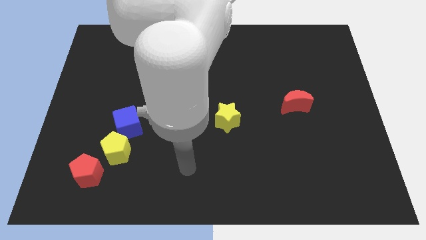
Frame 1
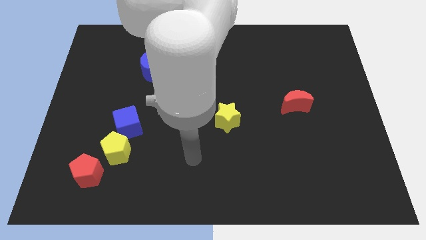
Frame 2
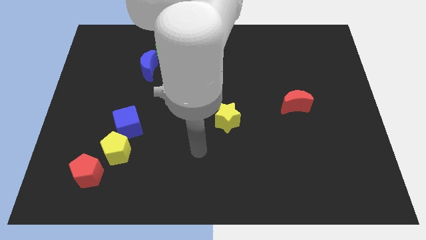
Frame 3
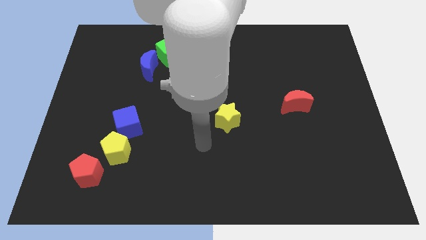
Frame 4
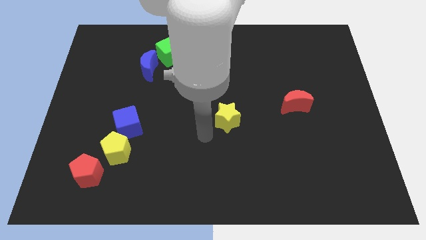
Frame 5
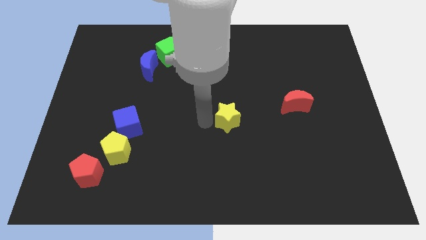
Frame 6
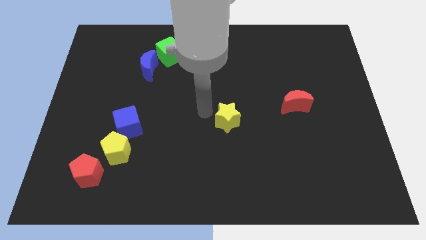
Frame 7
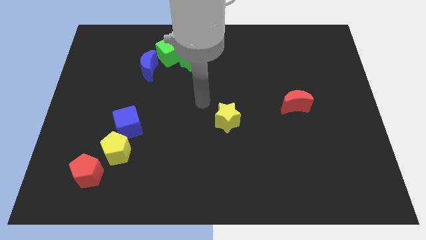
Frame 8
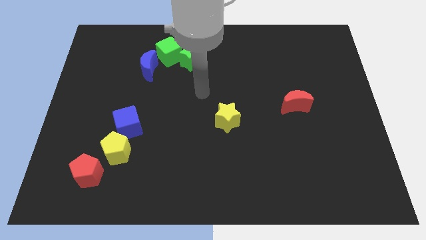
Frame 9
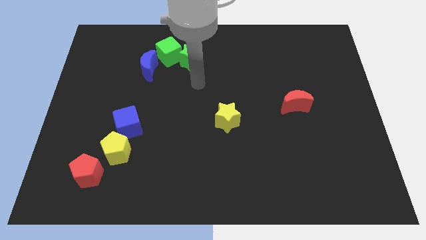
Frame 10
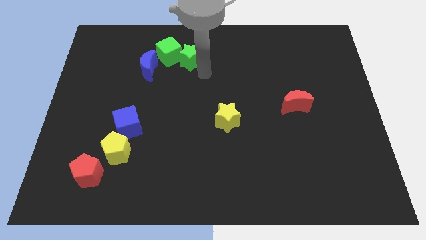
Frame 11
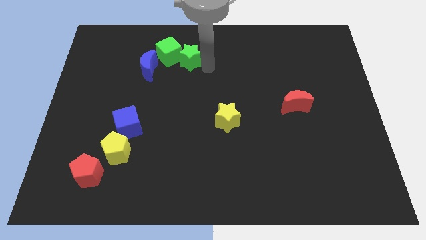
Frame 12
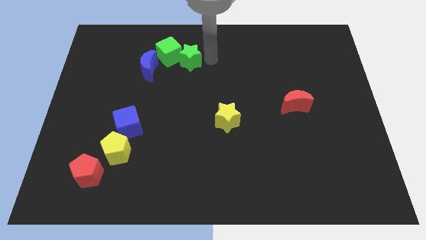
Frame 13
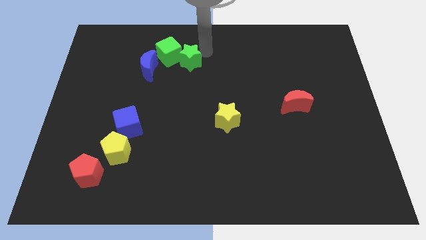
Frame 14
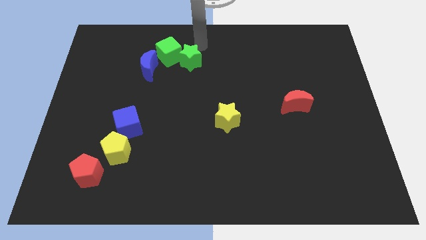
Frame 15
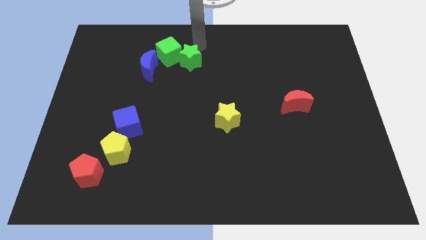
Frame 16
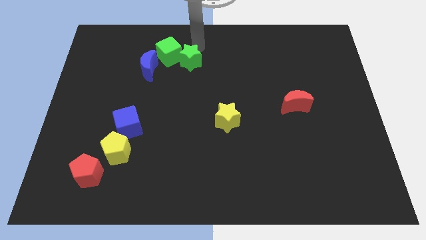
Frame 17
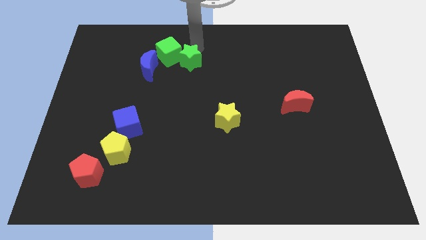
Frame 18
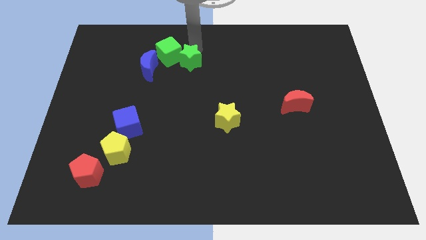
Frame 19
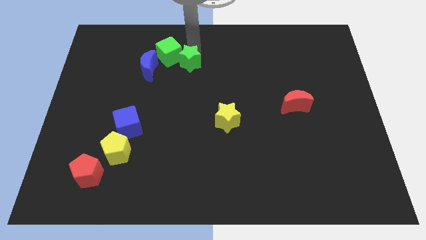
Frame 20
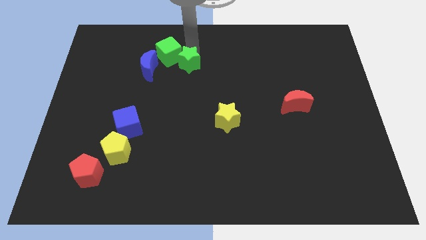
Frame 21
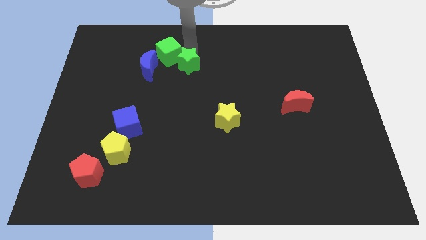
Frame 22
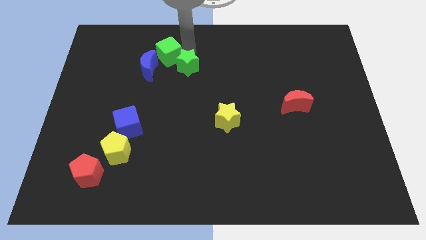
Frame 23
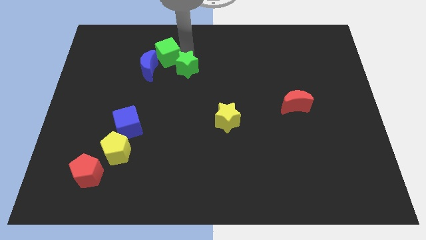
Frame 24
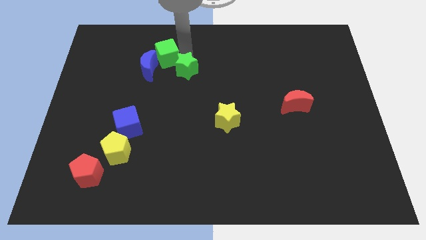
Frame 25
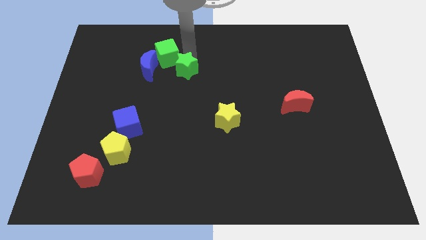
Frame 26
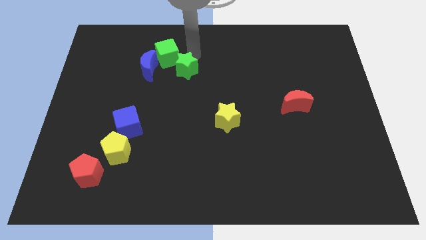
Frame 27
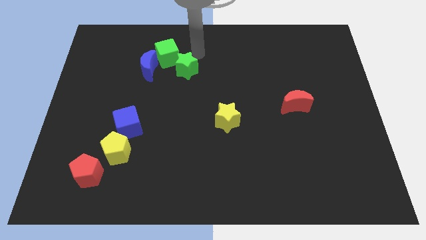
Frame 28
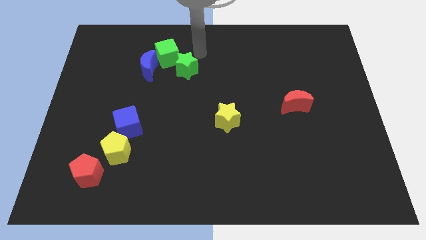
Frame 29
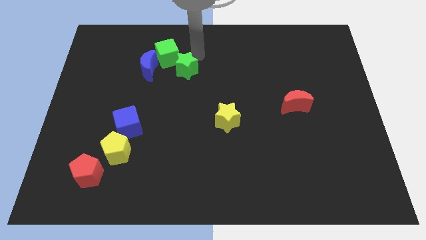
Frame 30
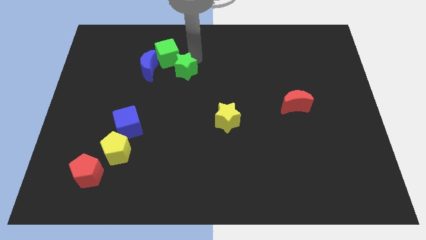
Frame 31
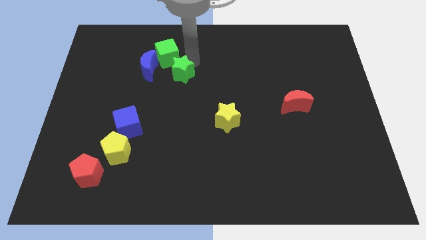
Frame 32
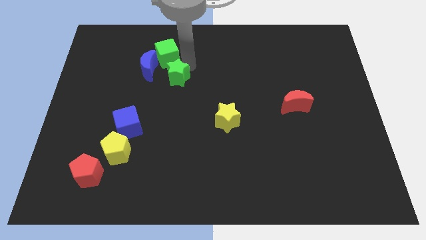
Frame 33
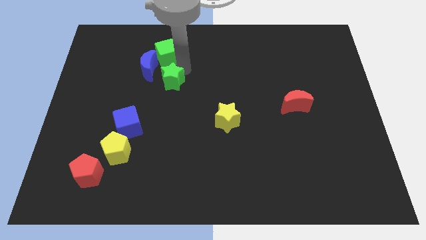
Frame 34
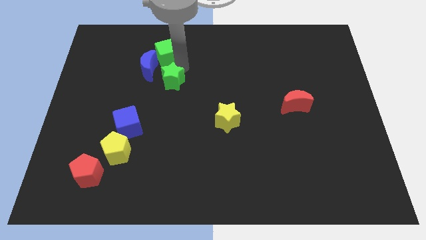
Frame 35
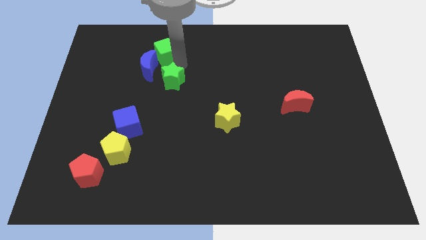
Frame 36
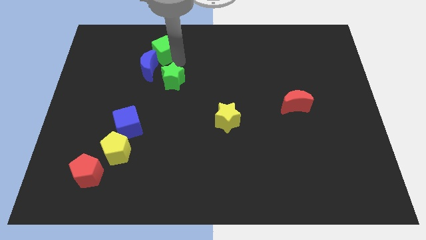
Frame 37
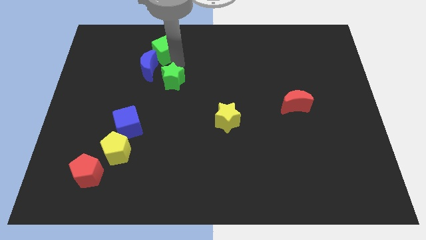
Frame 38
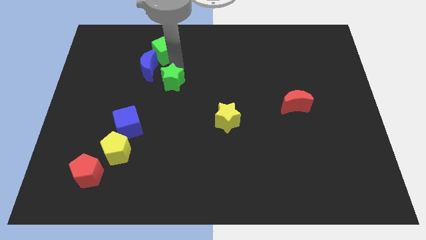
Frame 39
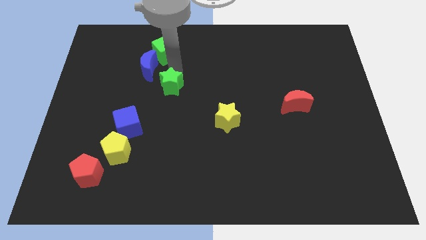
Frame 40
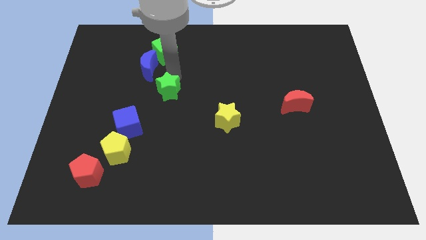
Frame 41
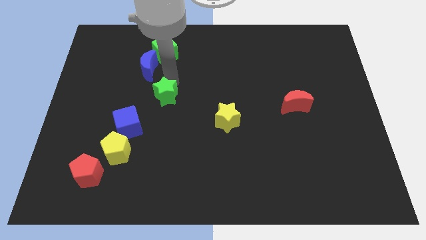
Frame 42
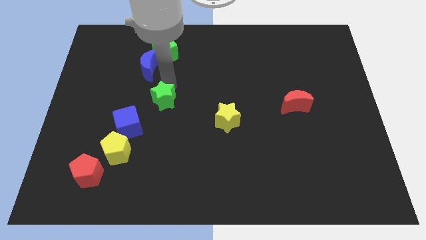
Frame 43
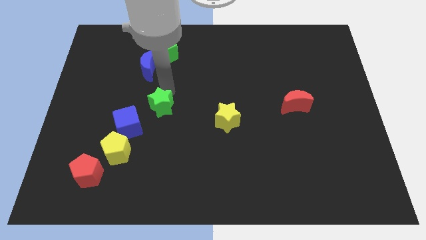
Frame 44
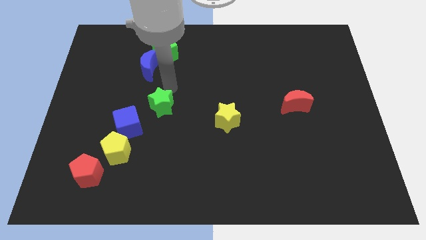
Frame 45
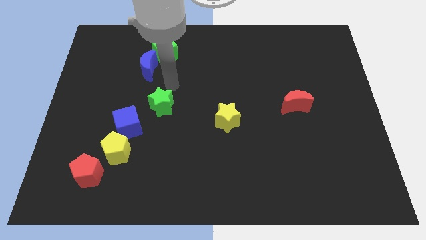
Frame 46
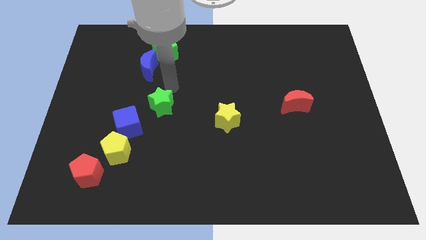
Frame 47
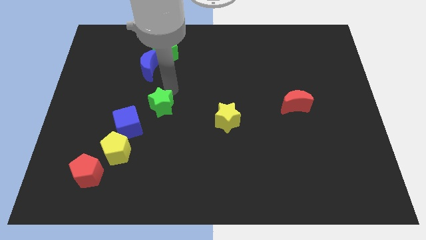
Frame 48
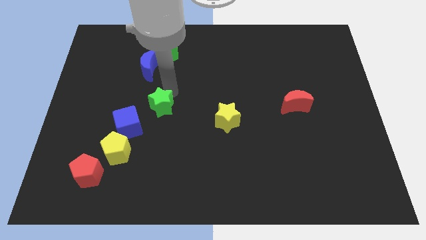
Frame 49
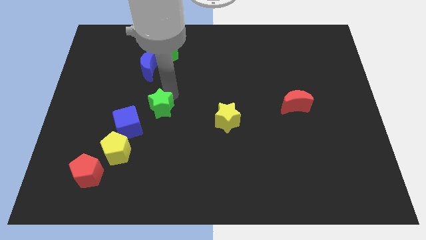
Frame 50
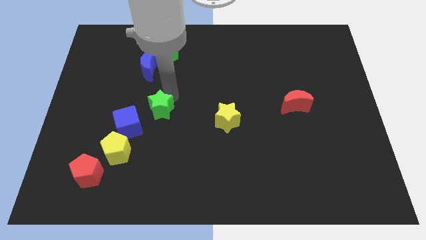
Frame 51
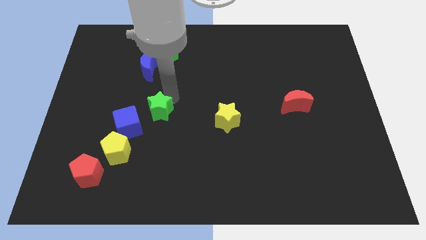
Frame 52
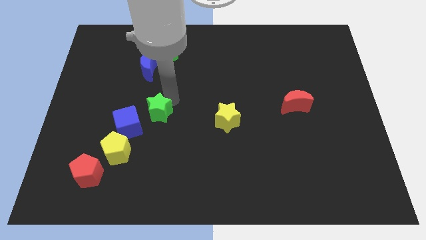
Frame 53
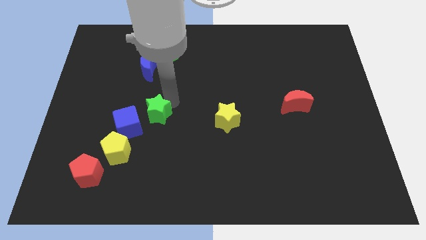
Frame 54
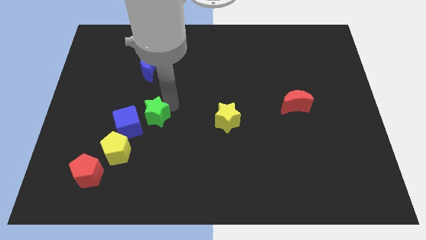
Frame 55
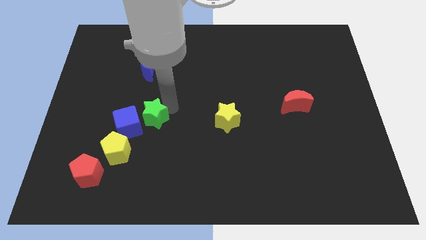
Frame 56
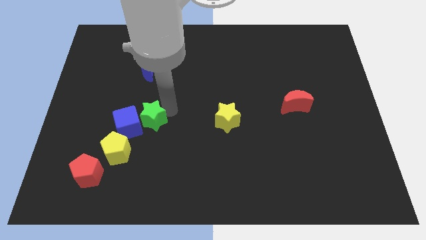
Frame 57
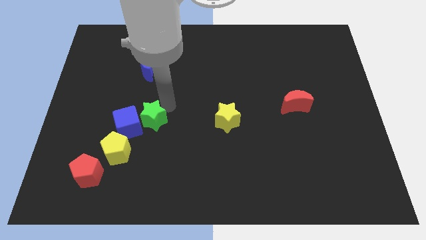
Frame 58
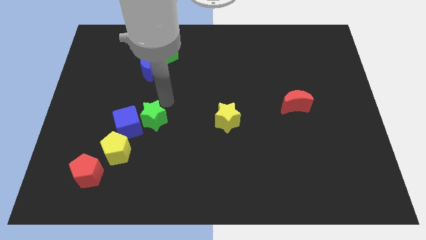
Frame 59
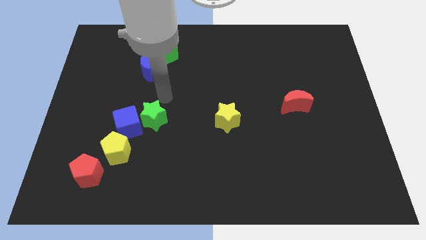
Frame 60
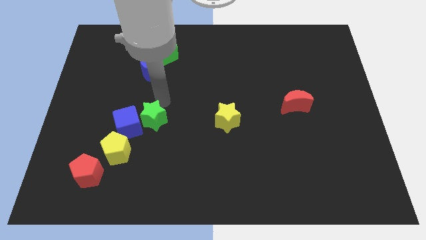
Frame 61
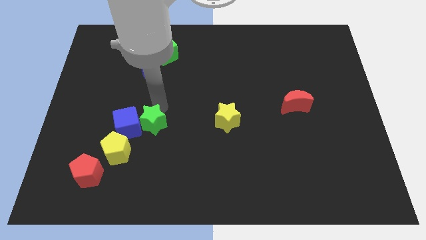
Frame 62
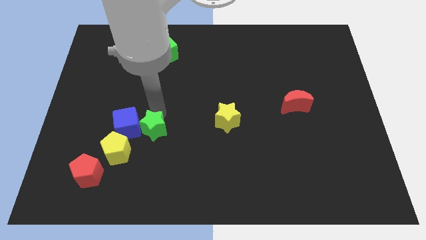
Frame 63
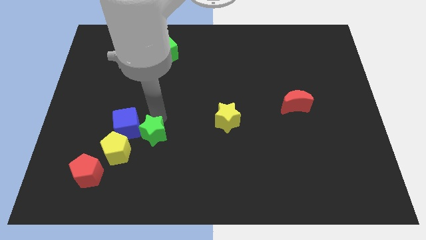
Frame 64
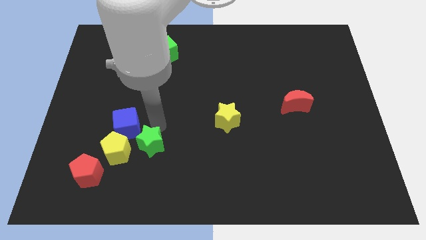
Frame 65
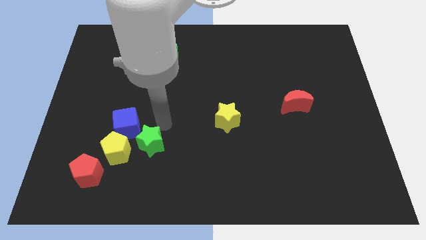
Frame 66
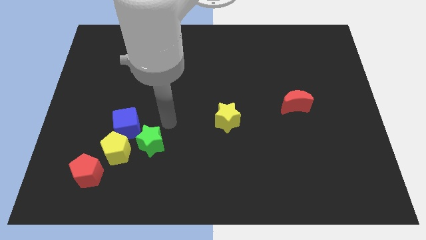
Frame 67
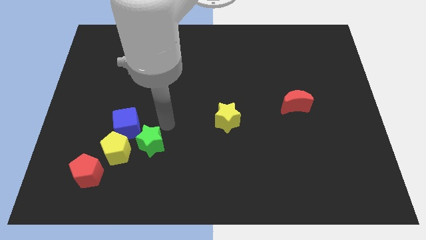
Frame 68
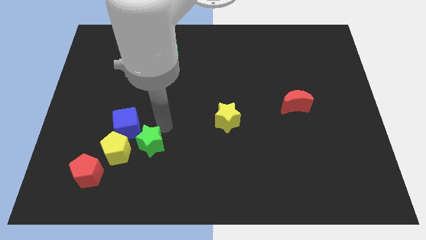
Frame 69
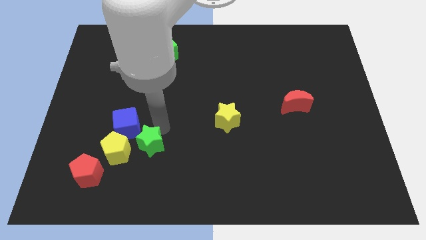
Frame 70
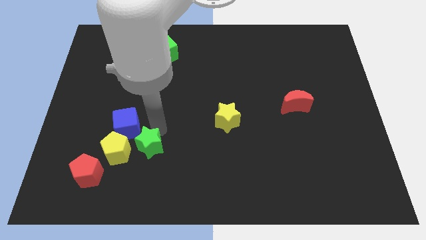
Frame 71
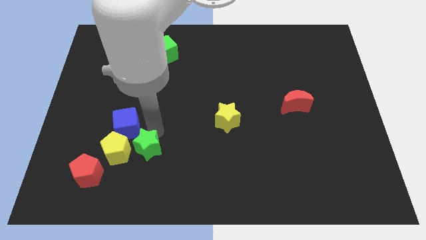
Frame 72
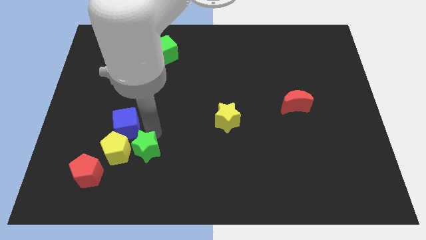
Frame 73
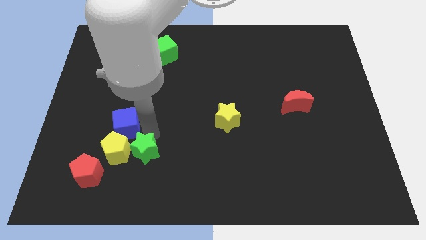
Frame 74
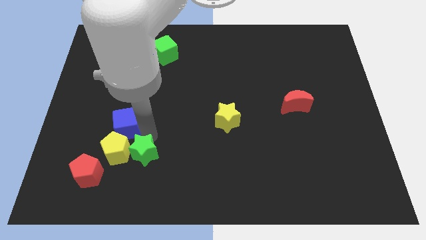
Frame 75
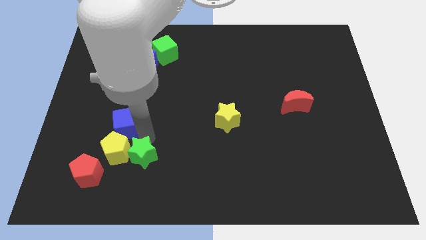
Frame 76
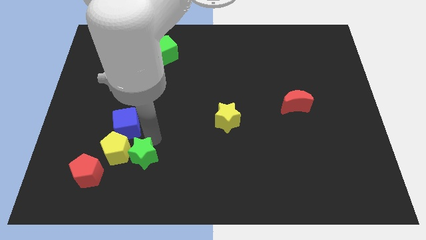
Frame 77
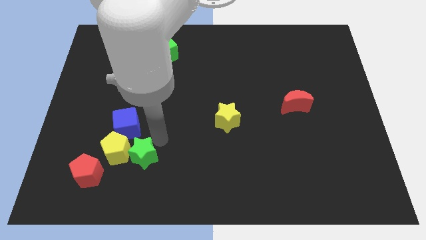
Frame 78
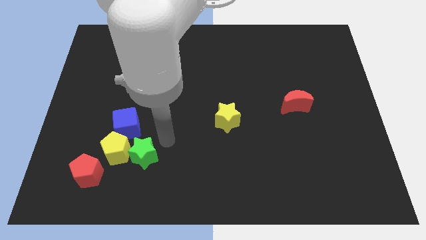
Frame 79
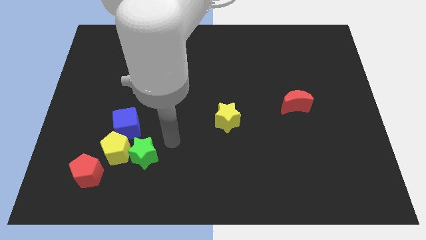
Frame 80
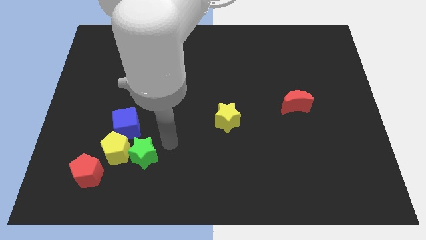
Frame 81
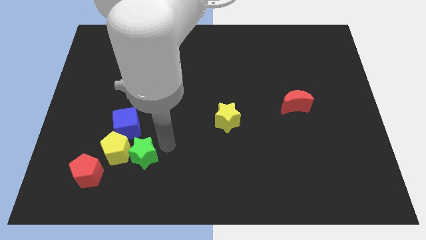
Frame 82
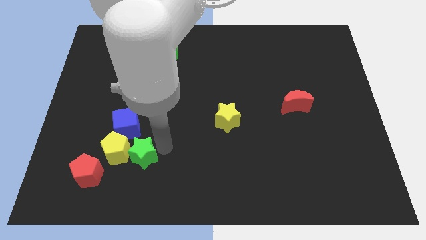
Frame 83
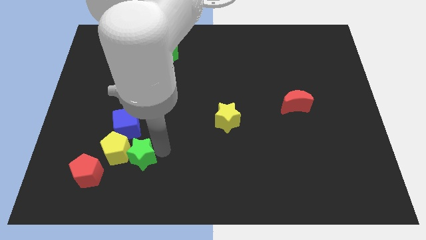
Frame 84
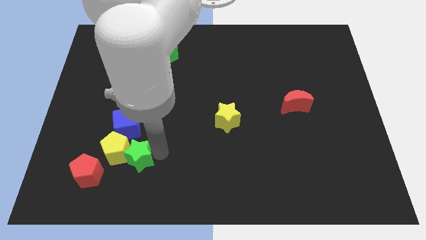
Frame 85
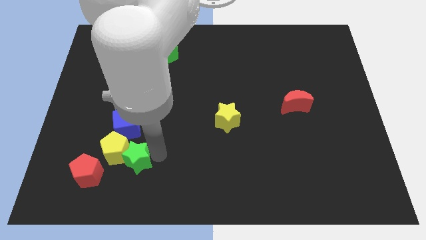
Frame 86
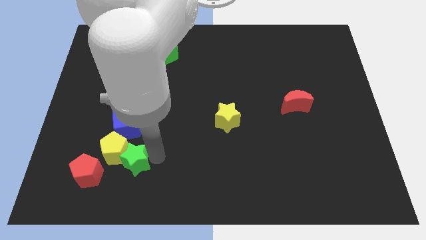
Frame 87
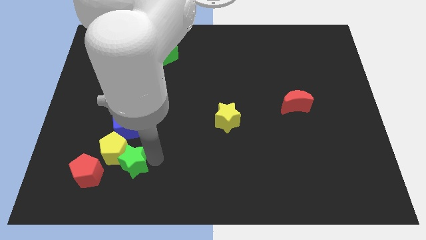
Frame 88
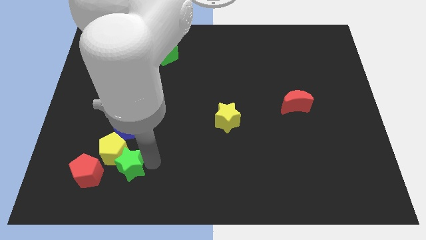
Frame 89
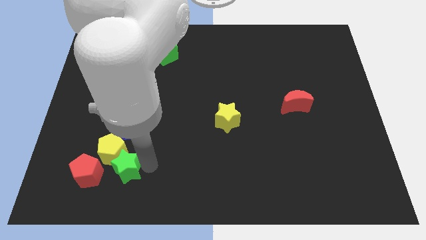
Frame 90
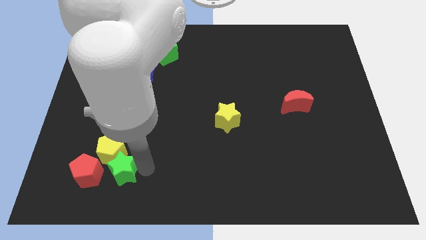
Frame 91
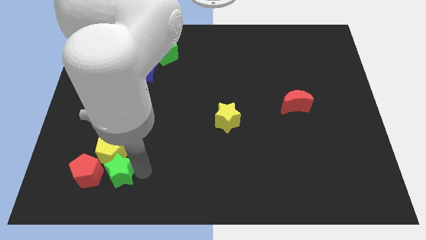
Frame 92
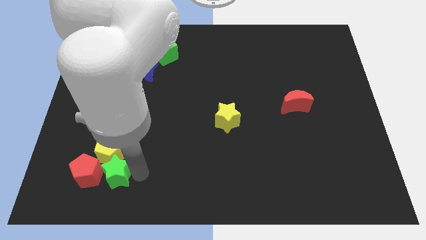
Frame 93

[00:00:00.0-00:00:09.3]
push the green star to the red pentagon
